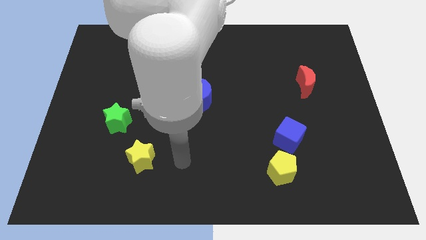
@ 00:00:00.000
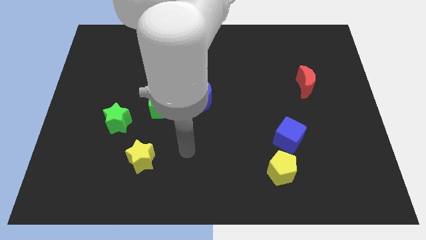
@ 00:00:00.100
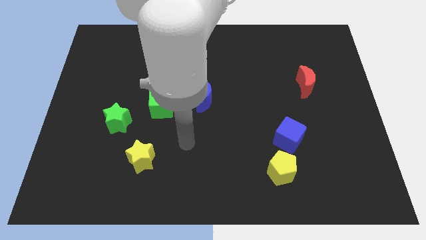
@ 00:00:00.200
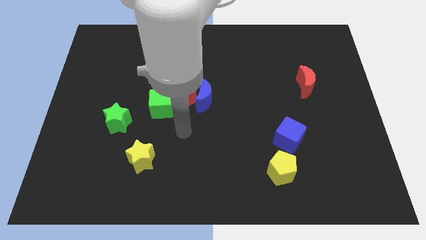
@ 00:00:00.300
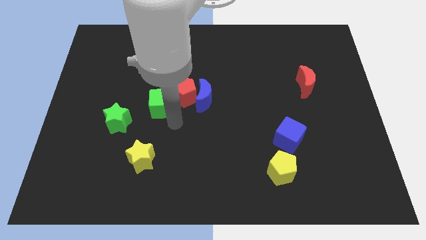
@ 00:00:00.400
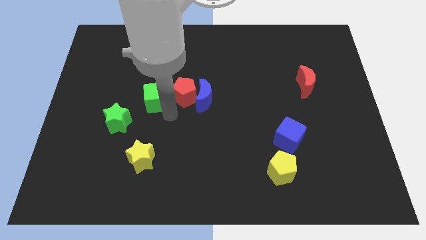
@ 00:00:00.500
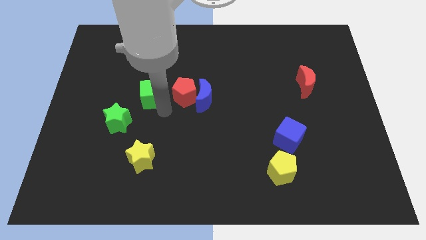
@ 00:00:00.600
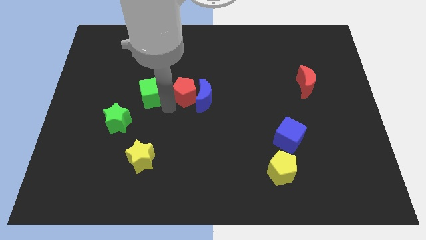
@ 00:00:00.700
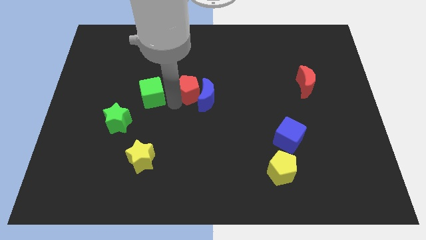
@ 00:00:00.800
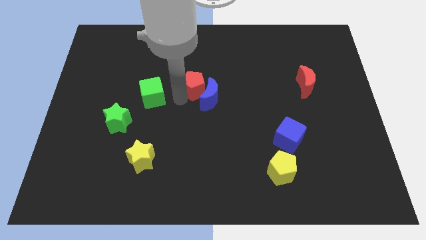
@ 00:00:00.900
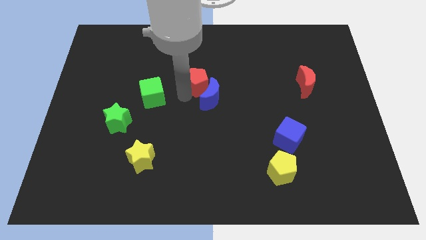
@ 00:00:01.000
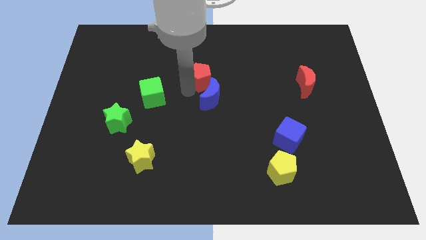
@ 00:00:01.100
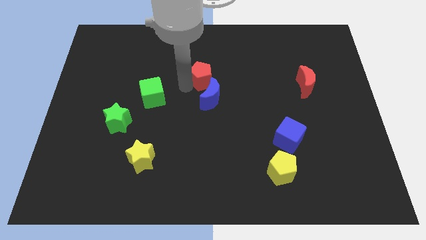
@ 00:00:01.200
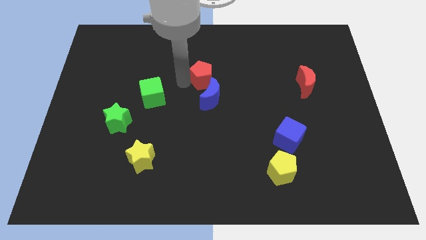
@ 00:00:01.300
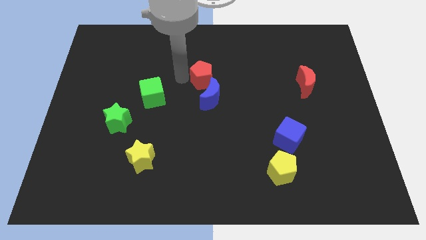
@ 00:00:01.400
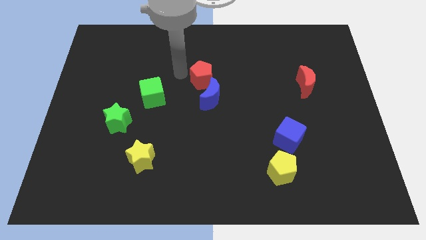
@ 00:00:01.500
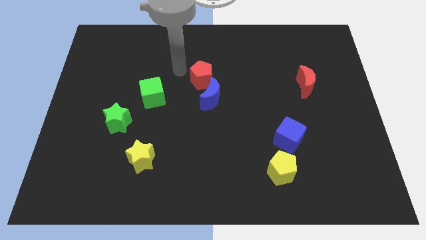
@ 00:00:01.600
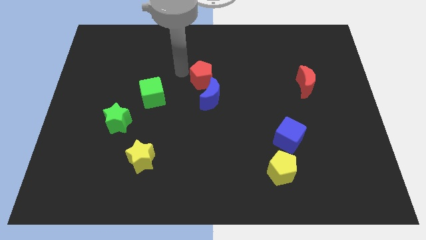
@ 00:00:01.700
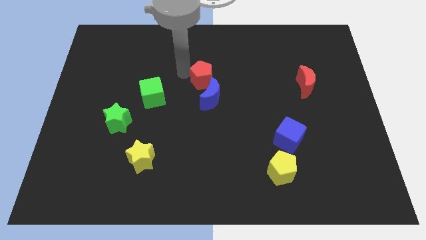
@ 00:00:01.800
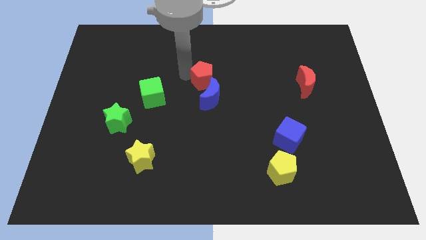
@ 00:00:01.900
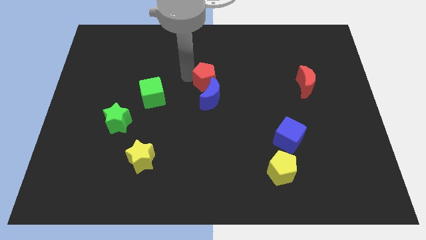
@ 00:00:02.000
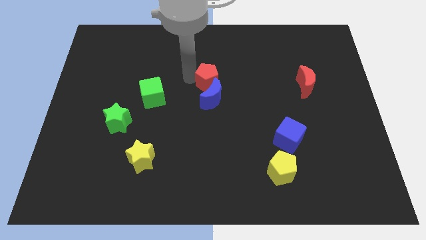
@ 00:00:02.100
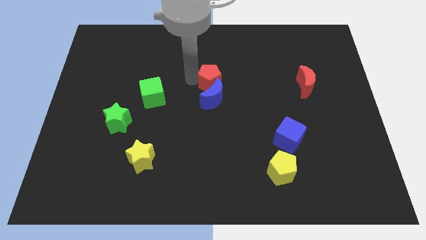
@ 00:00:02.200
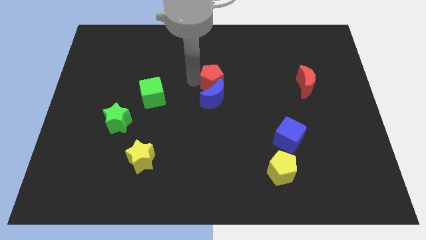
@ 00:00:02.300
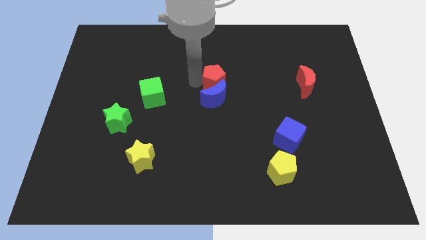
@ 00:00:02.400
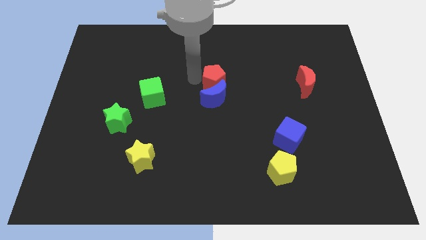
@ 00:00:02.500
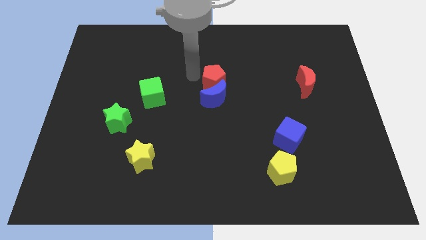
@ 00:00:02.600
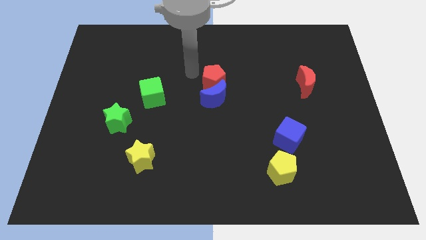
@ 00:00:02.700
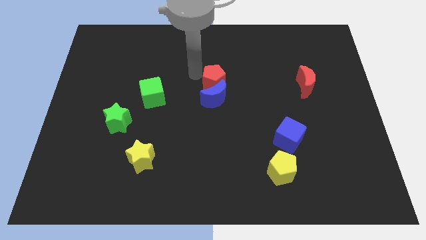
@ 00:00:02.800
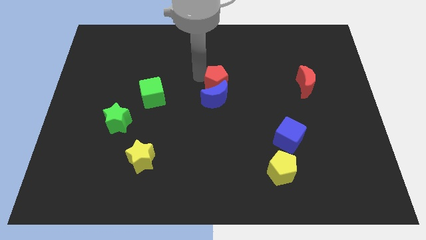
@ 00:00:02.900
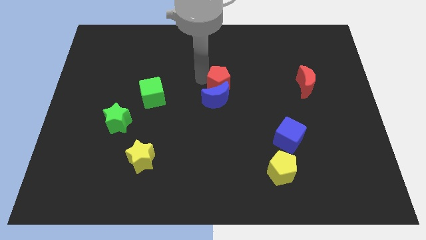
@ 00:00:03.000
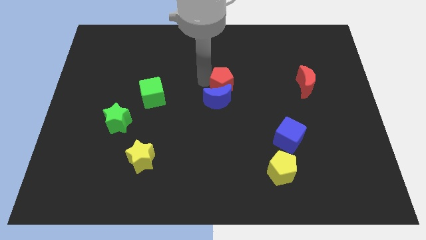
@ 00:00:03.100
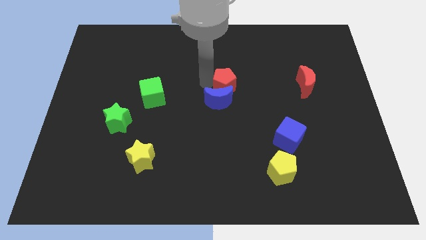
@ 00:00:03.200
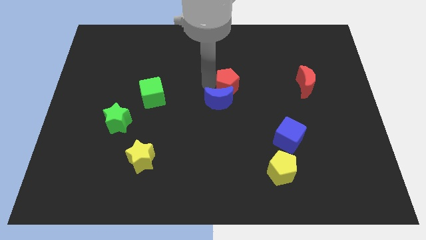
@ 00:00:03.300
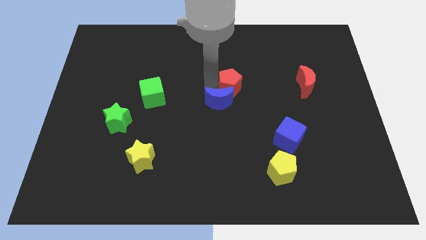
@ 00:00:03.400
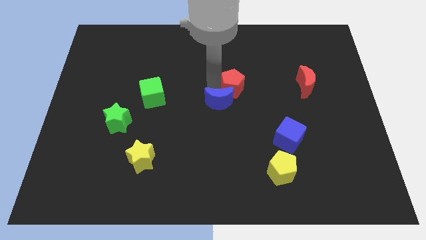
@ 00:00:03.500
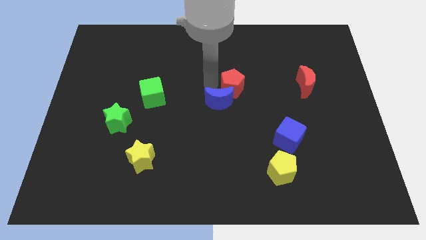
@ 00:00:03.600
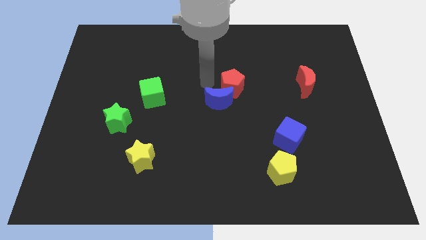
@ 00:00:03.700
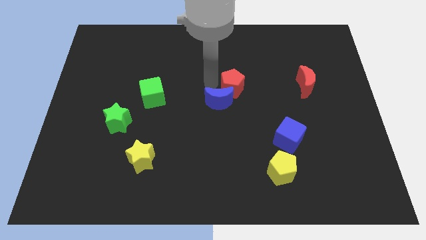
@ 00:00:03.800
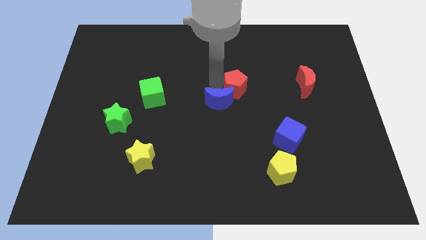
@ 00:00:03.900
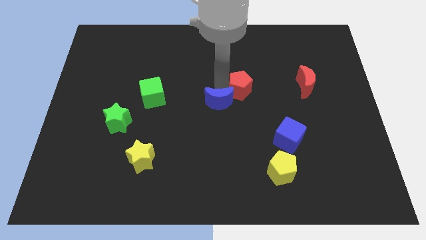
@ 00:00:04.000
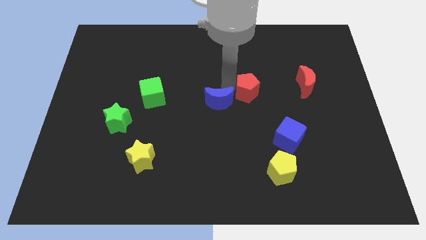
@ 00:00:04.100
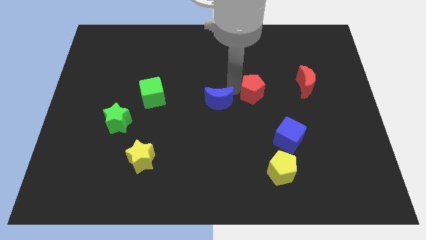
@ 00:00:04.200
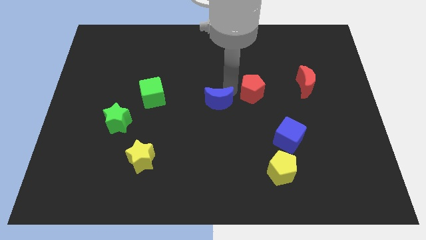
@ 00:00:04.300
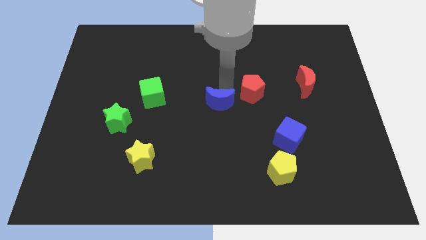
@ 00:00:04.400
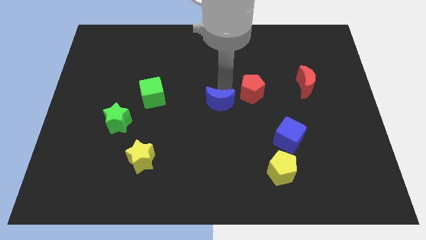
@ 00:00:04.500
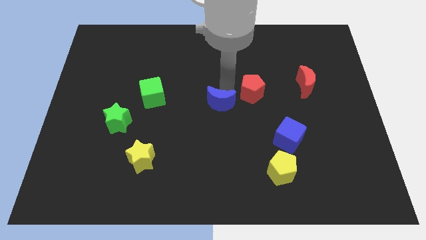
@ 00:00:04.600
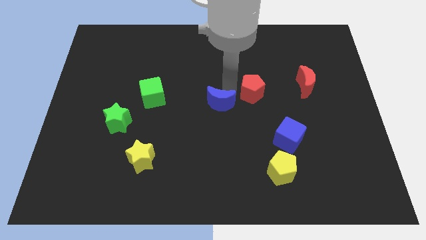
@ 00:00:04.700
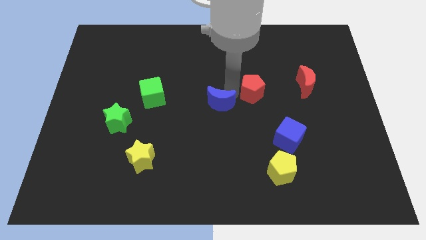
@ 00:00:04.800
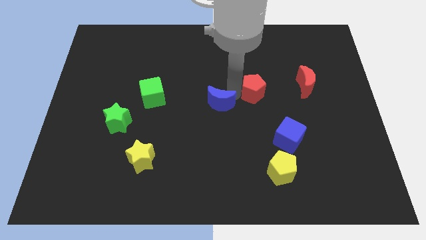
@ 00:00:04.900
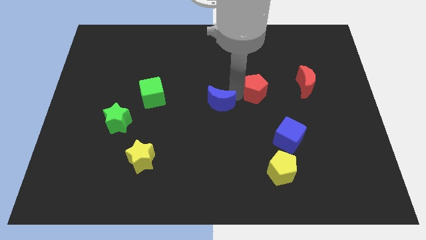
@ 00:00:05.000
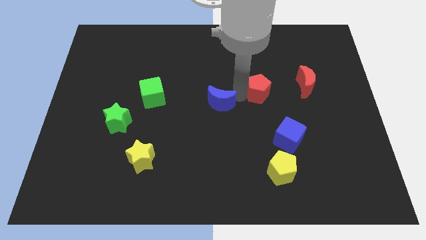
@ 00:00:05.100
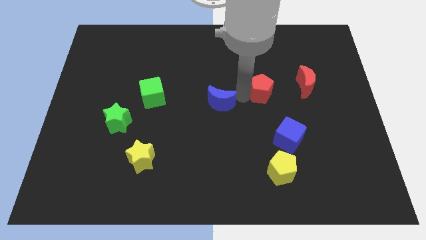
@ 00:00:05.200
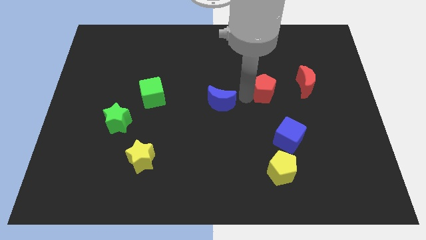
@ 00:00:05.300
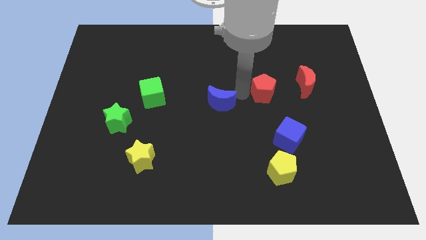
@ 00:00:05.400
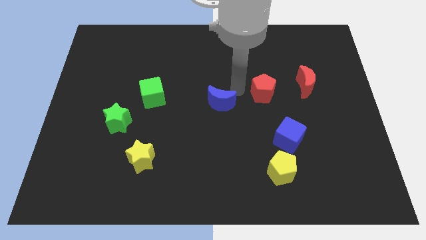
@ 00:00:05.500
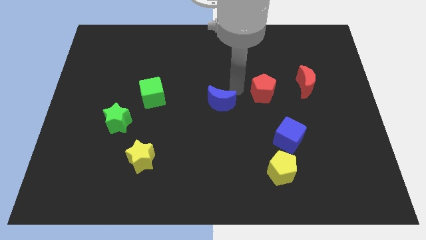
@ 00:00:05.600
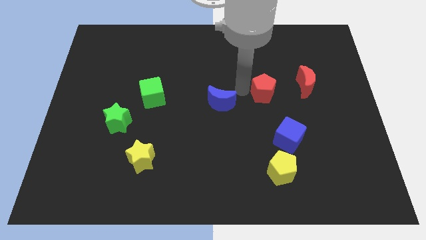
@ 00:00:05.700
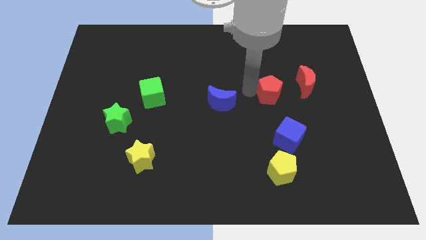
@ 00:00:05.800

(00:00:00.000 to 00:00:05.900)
move the red pentagon right

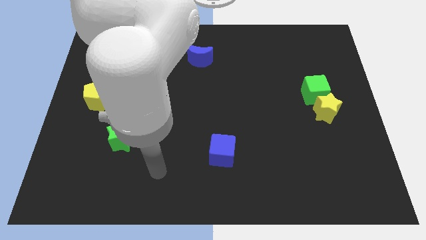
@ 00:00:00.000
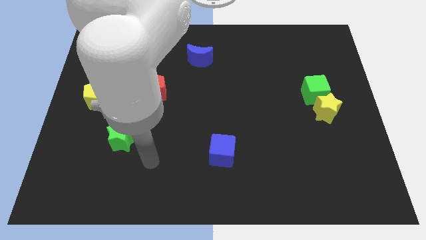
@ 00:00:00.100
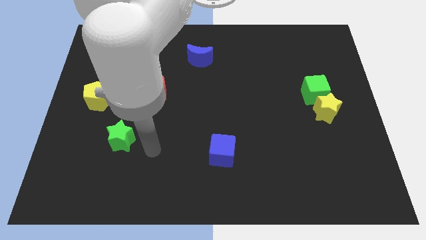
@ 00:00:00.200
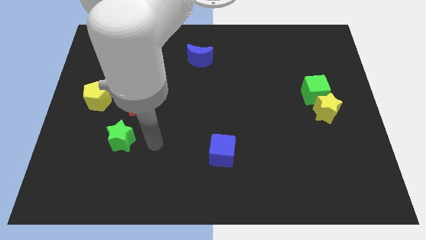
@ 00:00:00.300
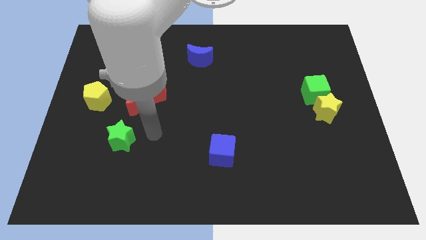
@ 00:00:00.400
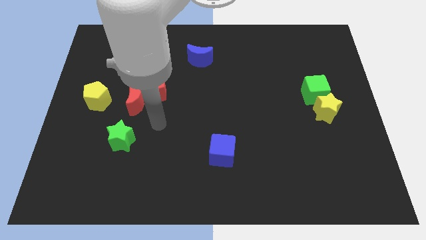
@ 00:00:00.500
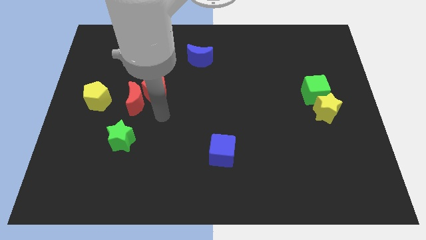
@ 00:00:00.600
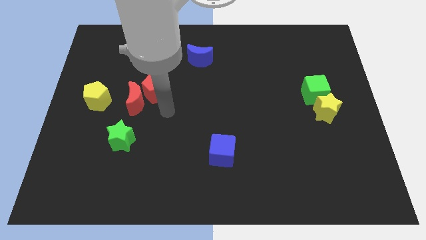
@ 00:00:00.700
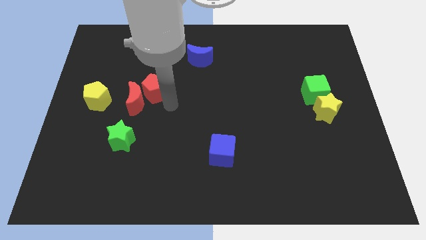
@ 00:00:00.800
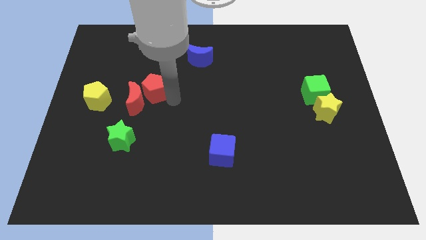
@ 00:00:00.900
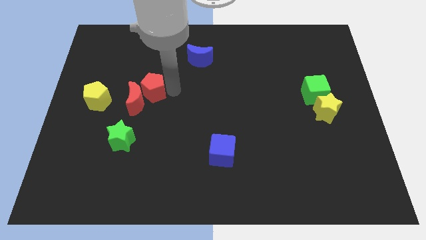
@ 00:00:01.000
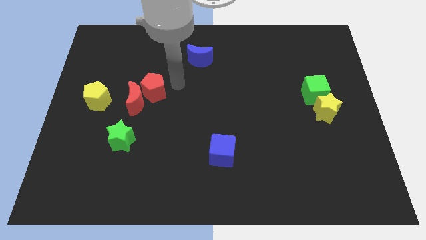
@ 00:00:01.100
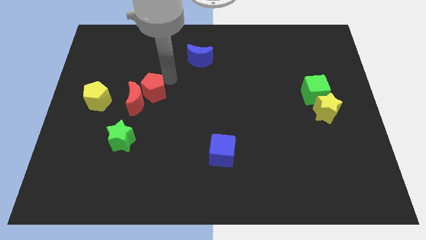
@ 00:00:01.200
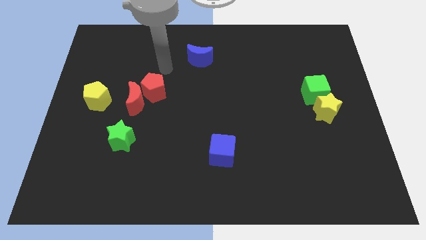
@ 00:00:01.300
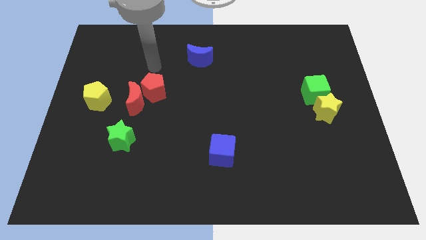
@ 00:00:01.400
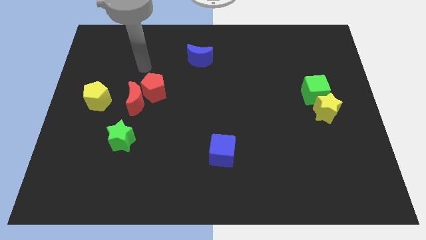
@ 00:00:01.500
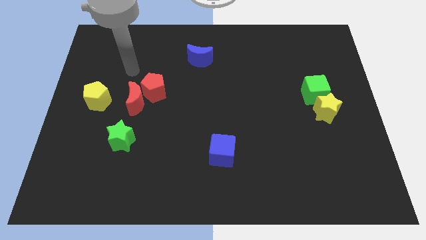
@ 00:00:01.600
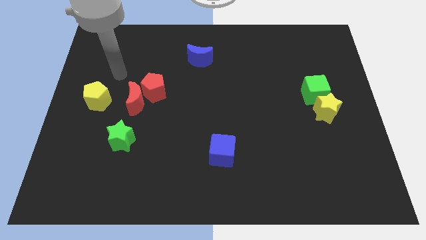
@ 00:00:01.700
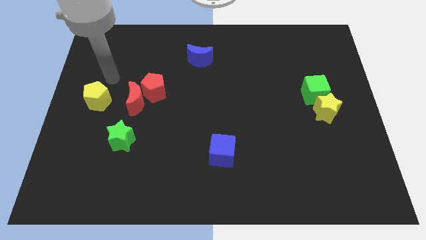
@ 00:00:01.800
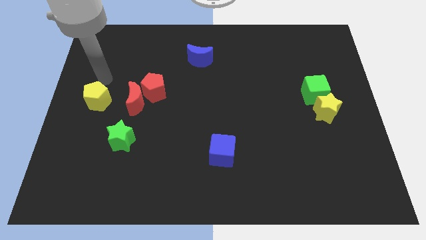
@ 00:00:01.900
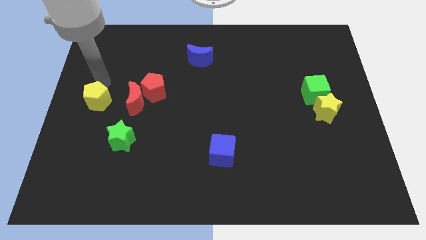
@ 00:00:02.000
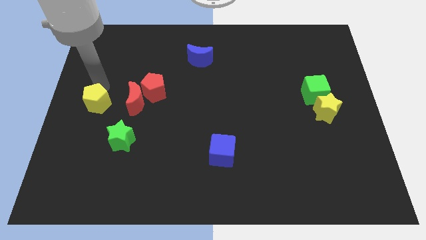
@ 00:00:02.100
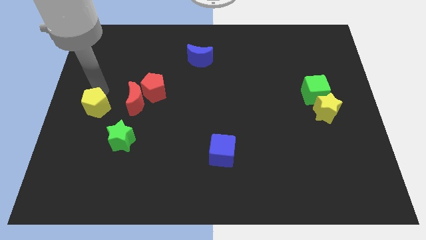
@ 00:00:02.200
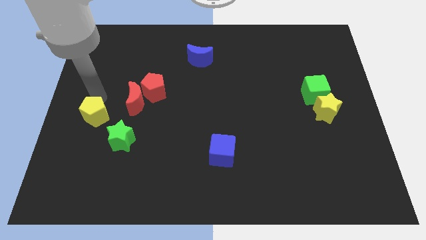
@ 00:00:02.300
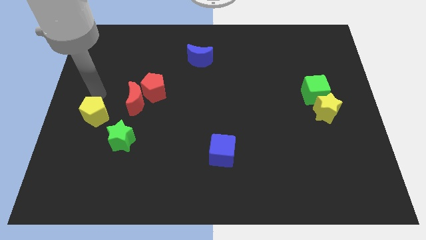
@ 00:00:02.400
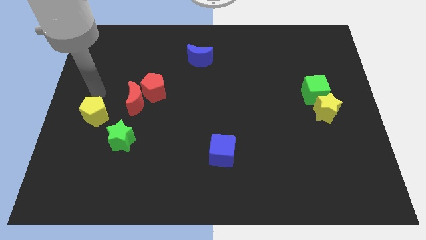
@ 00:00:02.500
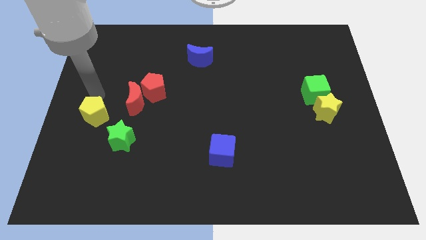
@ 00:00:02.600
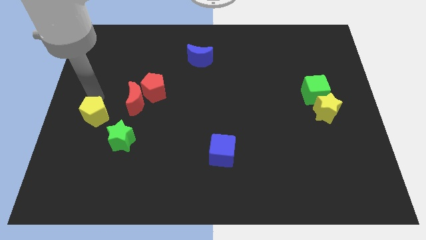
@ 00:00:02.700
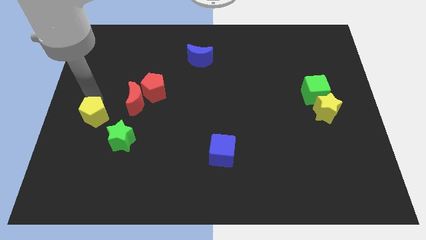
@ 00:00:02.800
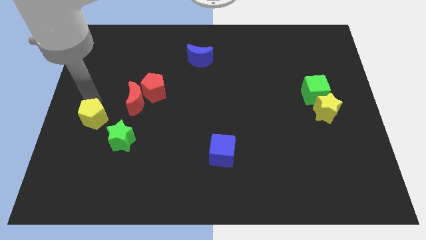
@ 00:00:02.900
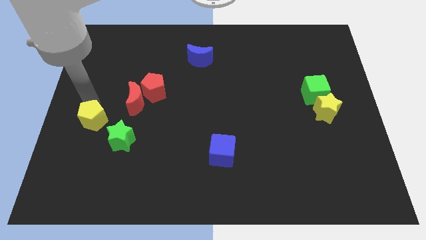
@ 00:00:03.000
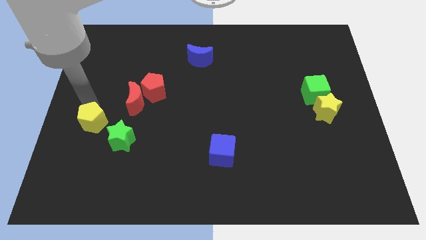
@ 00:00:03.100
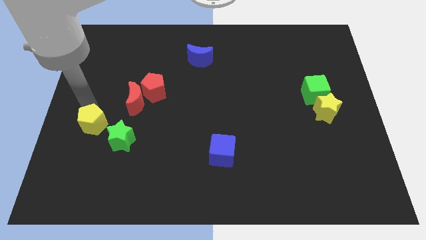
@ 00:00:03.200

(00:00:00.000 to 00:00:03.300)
move the yellow pentagon slightly down
